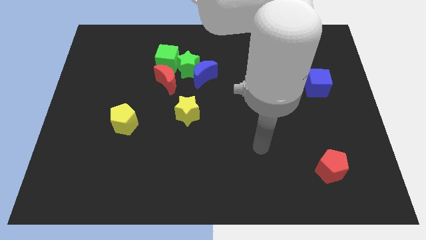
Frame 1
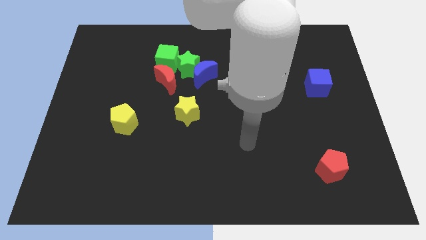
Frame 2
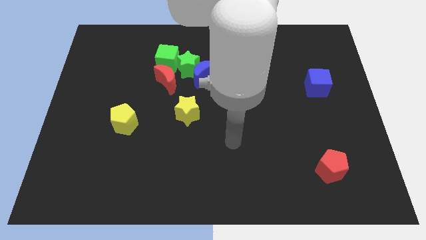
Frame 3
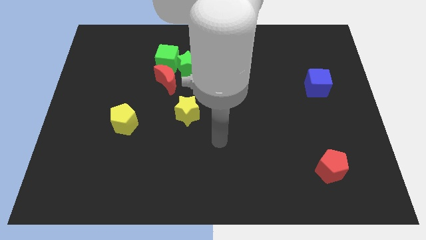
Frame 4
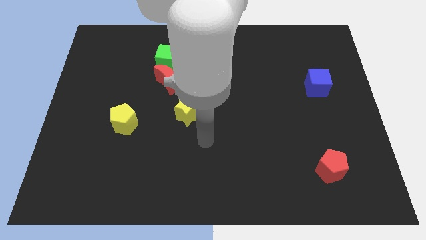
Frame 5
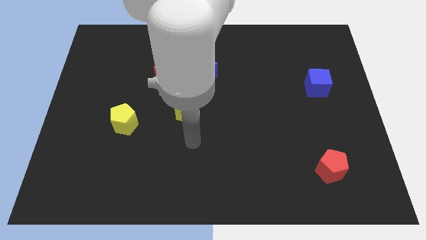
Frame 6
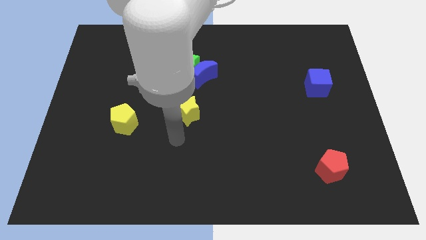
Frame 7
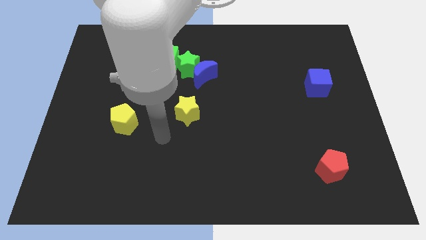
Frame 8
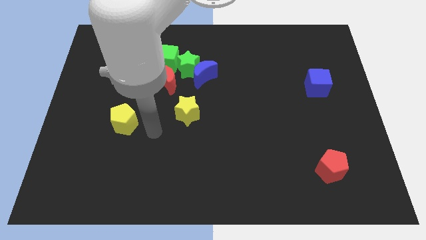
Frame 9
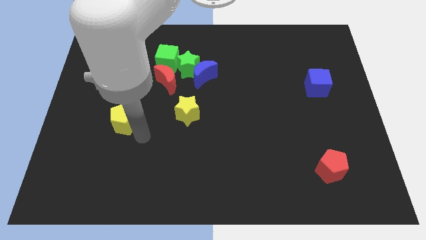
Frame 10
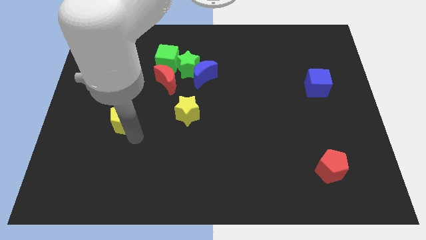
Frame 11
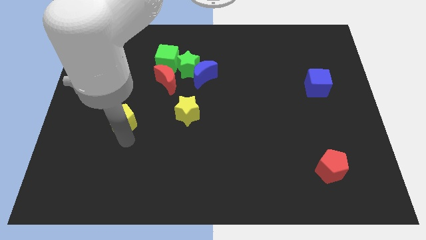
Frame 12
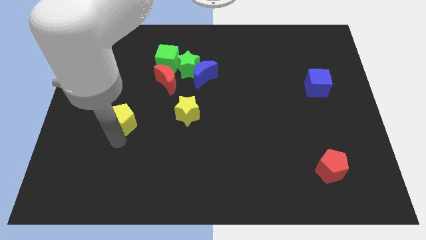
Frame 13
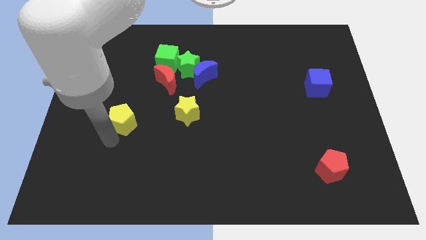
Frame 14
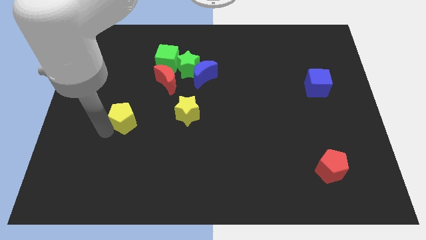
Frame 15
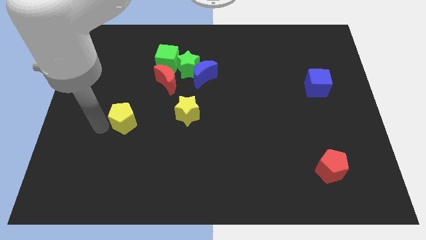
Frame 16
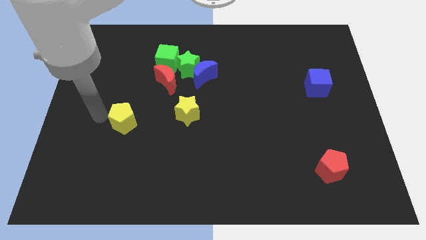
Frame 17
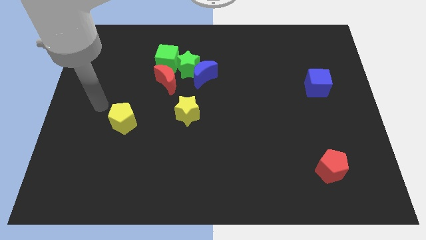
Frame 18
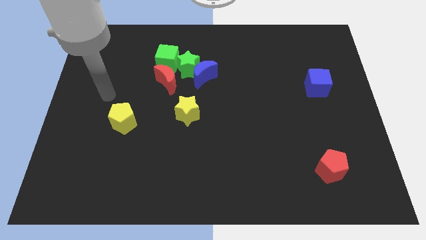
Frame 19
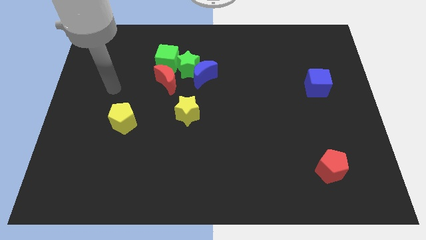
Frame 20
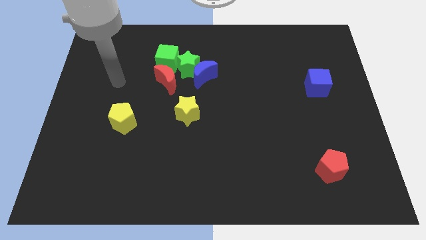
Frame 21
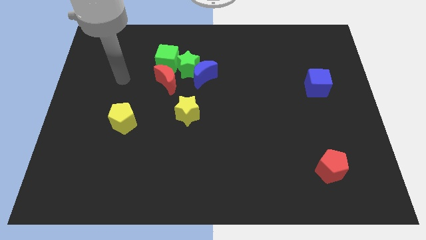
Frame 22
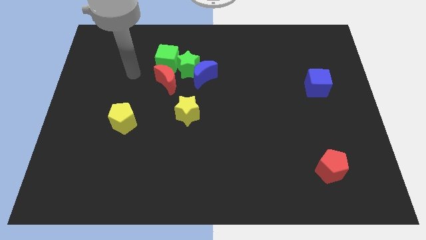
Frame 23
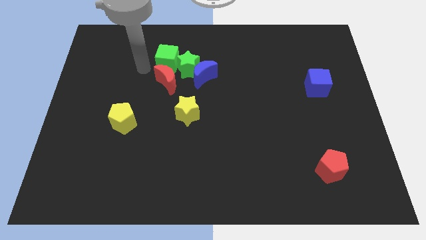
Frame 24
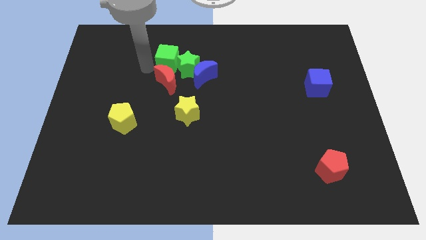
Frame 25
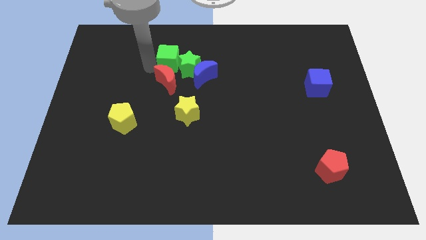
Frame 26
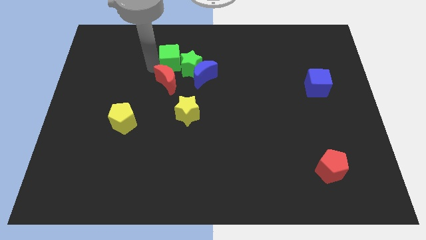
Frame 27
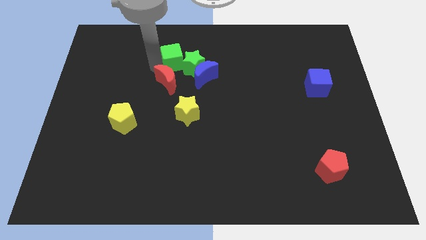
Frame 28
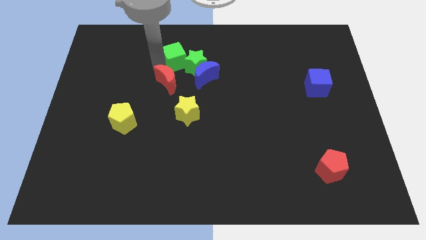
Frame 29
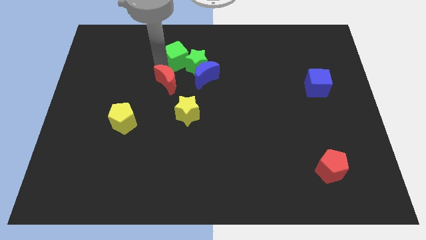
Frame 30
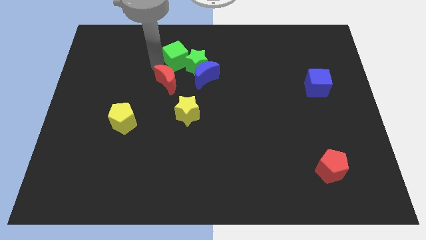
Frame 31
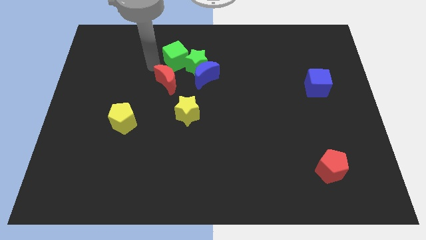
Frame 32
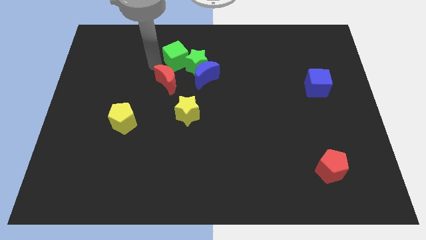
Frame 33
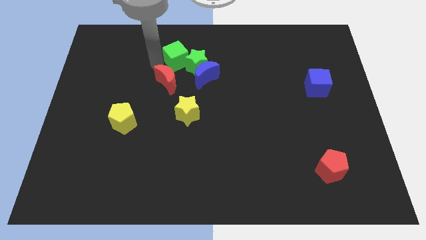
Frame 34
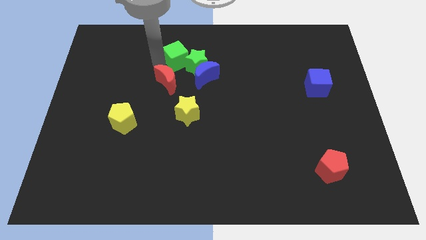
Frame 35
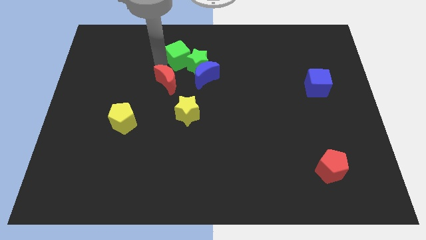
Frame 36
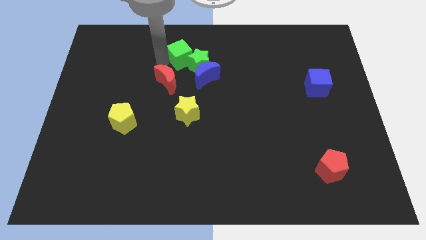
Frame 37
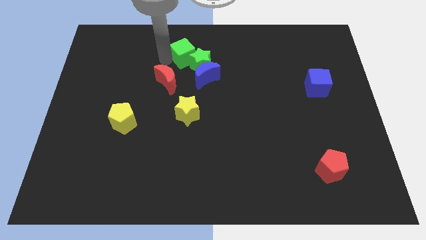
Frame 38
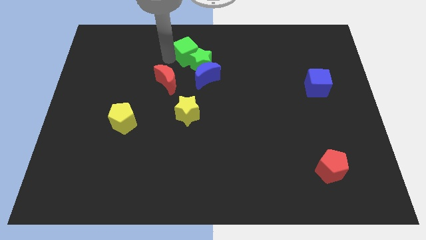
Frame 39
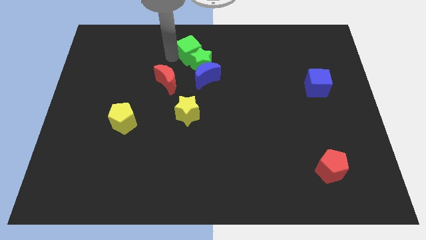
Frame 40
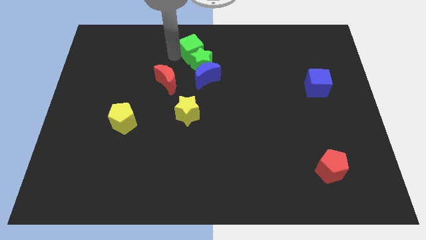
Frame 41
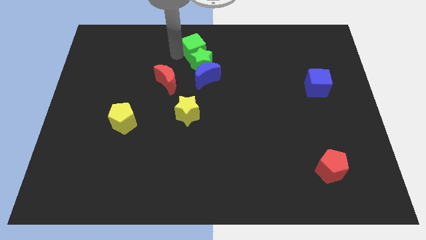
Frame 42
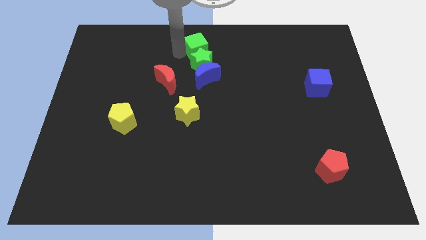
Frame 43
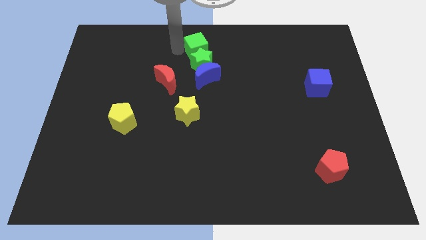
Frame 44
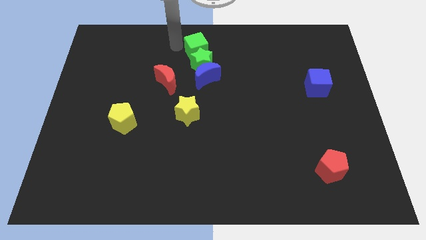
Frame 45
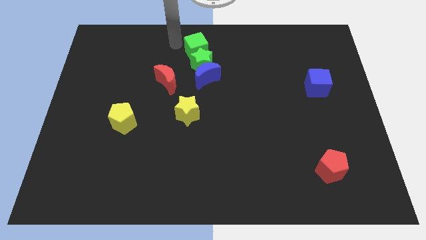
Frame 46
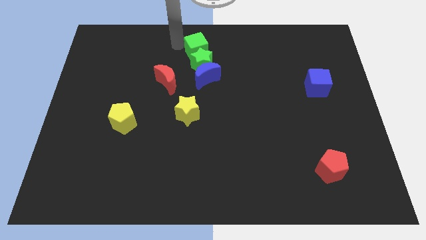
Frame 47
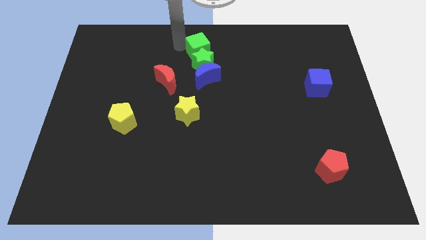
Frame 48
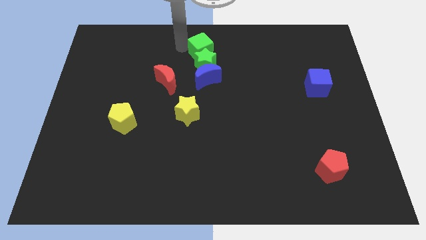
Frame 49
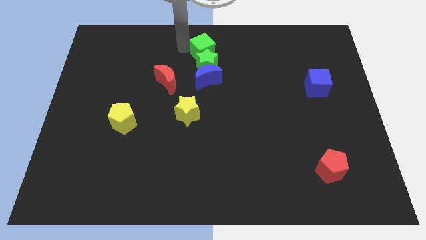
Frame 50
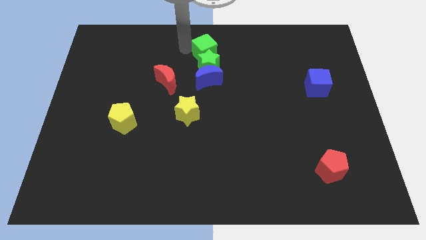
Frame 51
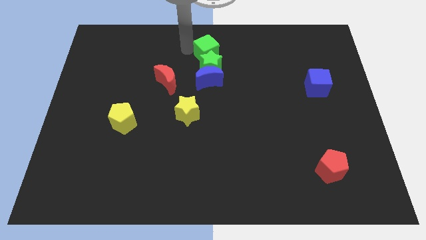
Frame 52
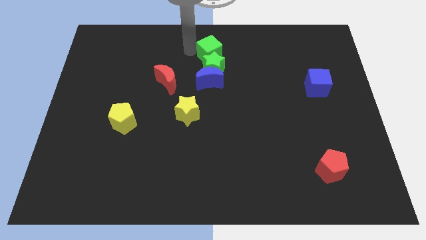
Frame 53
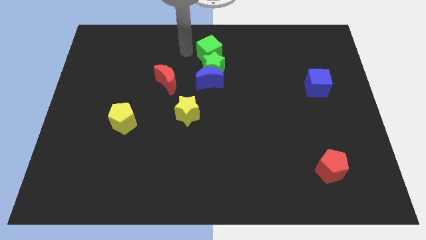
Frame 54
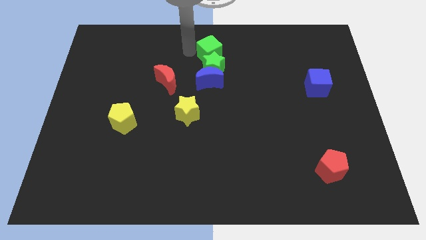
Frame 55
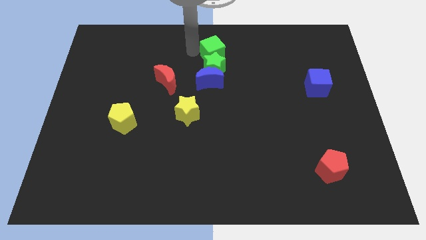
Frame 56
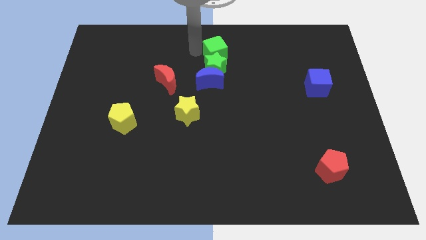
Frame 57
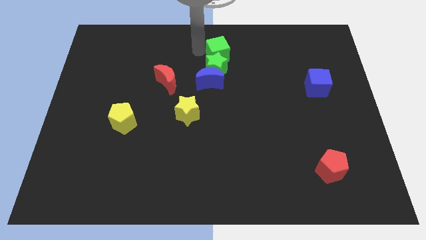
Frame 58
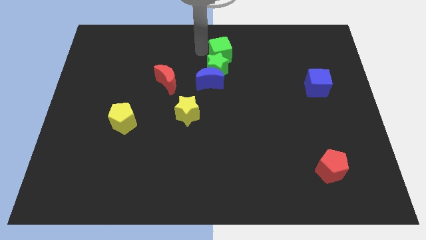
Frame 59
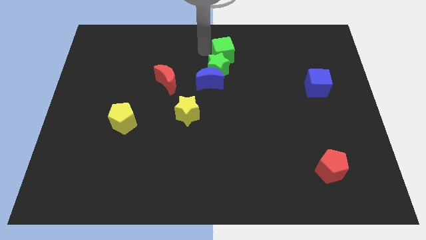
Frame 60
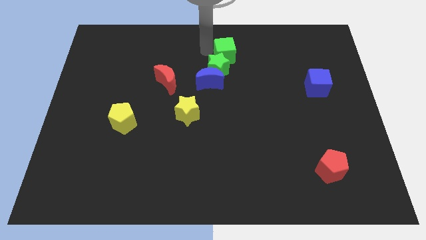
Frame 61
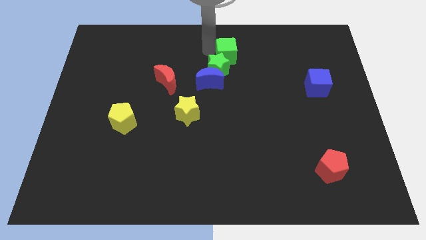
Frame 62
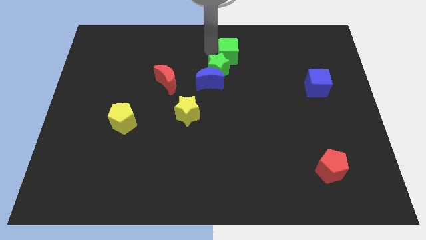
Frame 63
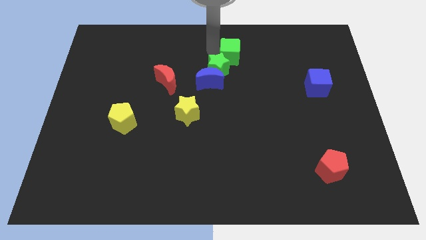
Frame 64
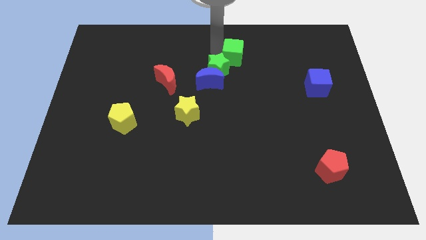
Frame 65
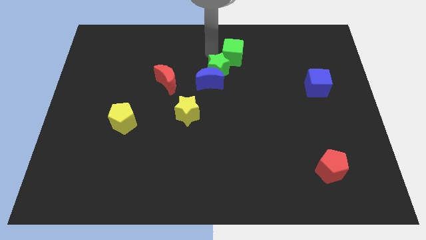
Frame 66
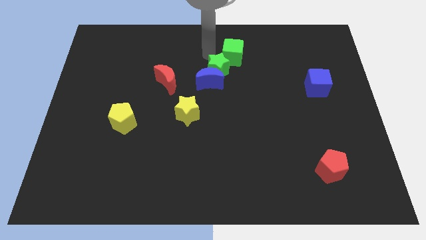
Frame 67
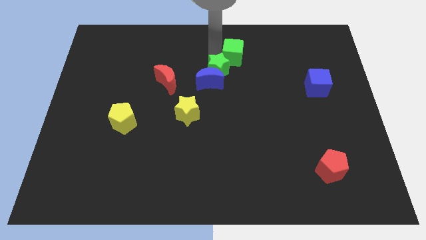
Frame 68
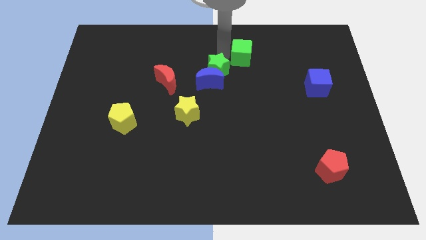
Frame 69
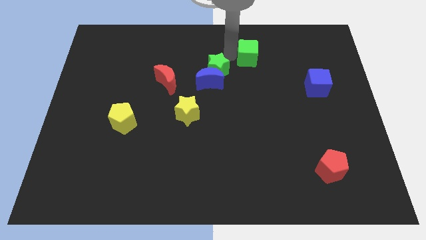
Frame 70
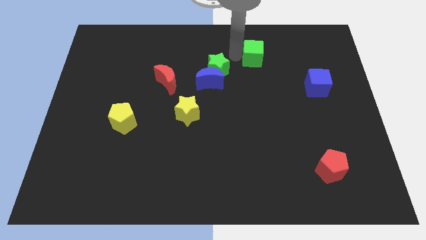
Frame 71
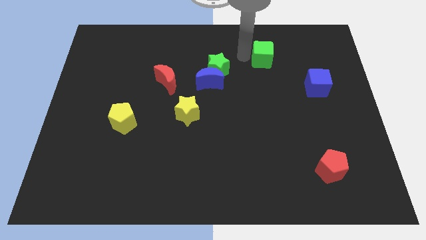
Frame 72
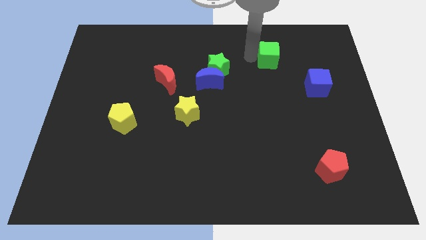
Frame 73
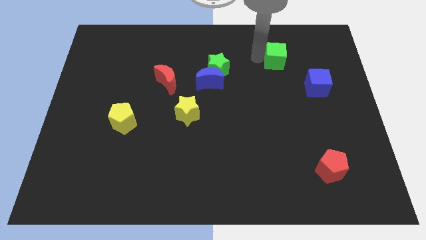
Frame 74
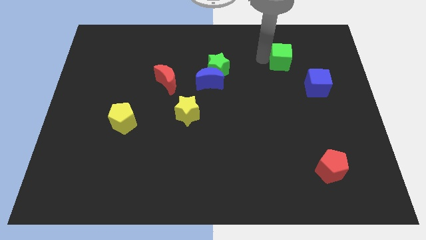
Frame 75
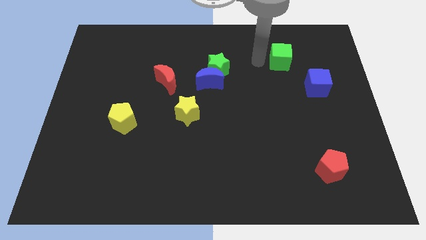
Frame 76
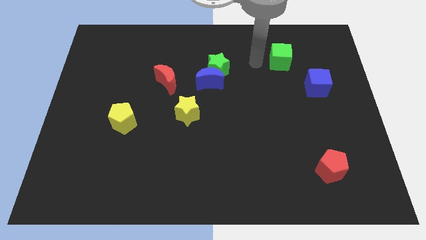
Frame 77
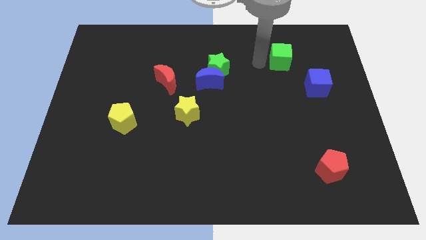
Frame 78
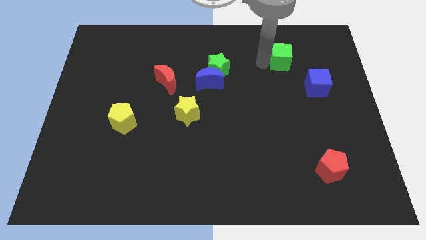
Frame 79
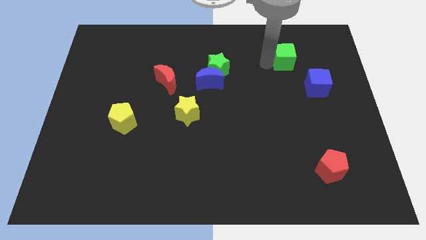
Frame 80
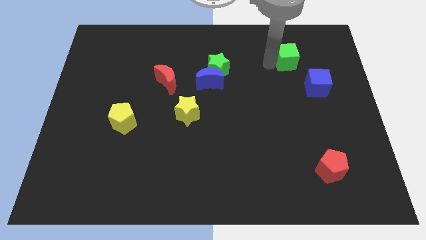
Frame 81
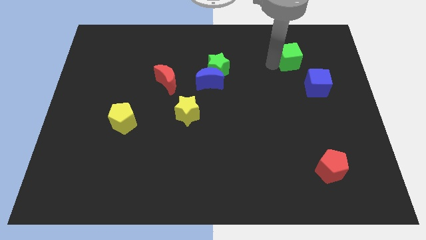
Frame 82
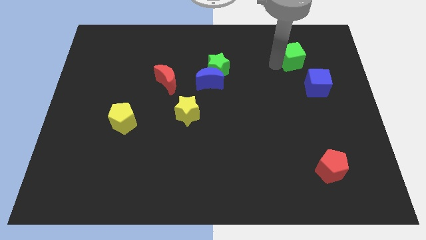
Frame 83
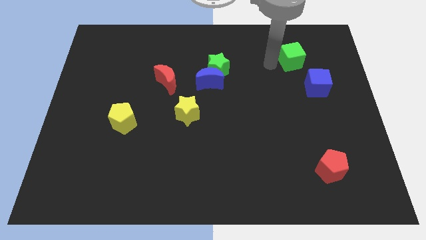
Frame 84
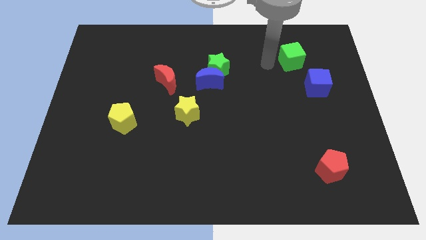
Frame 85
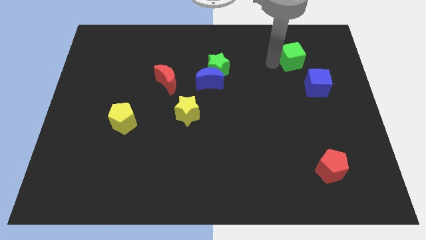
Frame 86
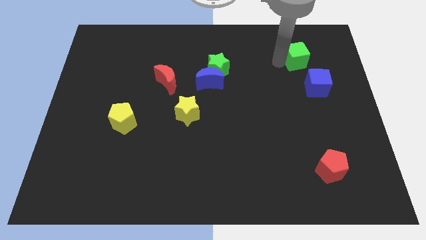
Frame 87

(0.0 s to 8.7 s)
put the green cube to the top of the blue cube
